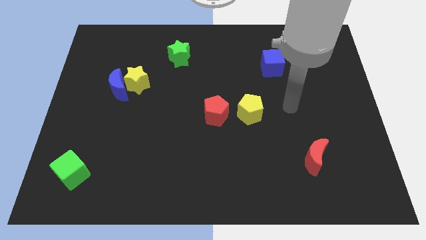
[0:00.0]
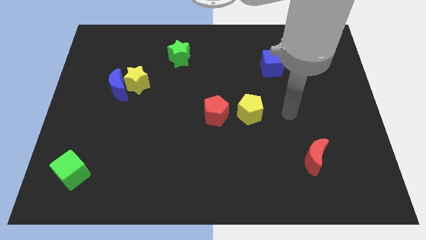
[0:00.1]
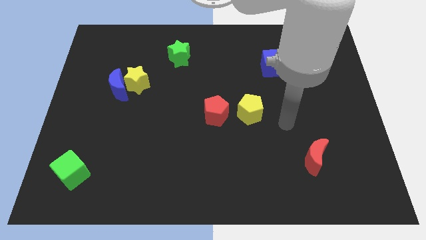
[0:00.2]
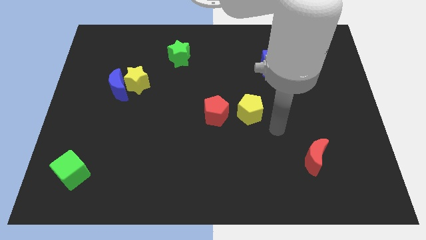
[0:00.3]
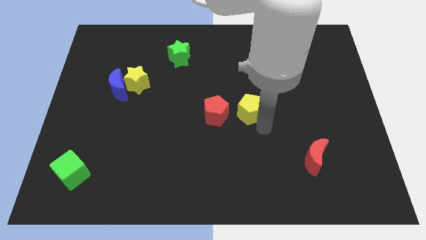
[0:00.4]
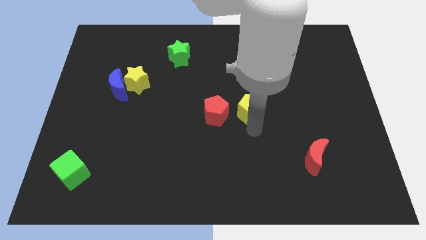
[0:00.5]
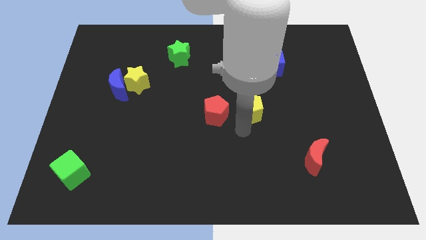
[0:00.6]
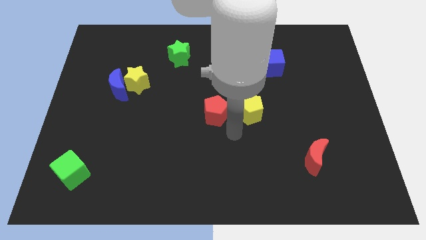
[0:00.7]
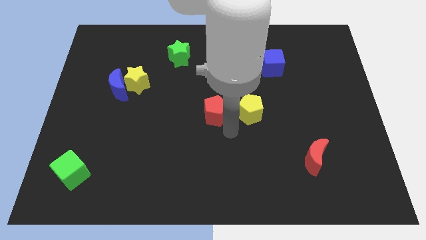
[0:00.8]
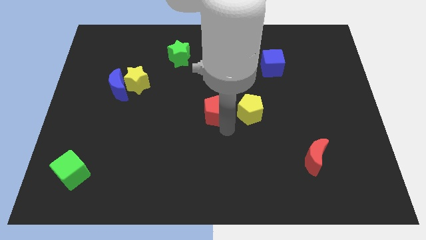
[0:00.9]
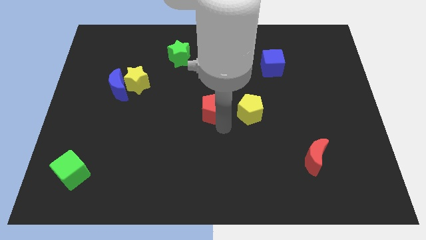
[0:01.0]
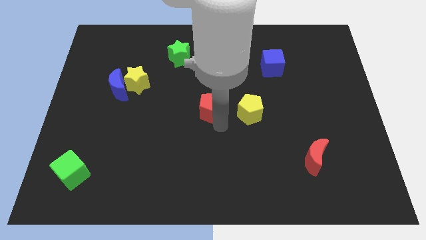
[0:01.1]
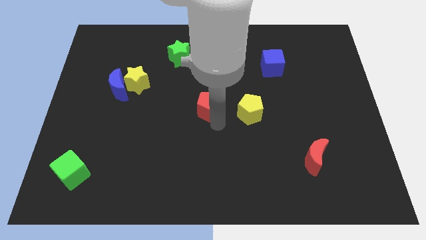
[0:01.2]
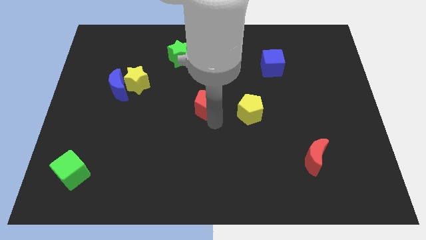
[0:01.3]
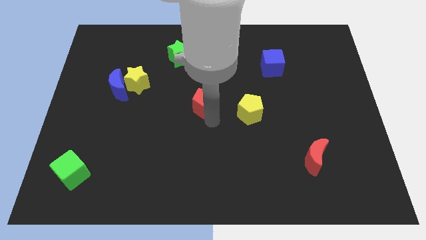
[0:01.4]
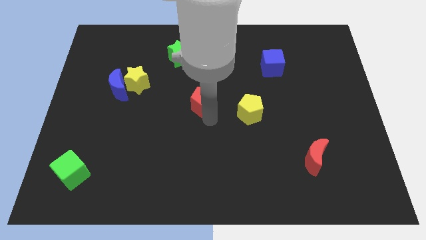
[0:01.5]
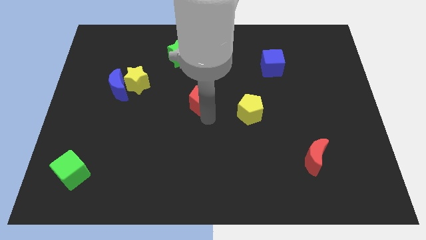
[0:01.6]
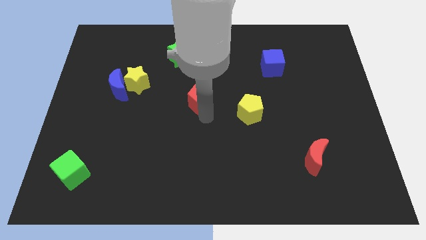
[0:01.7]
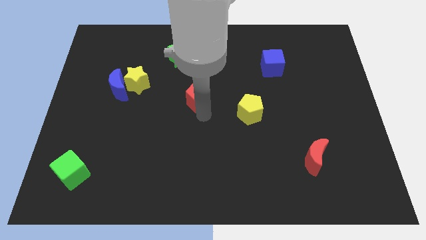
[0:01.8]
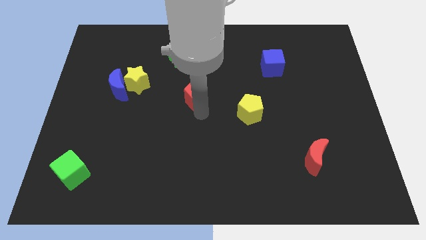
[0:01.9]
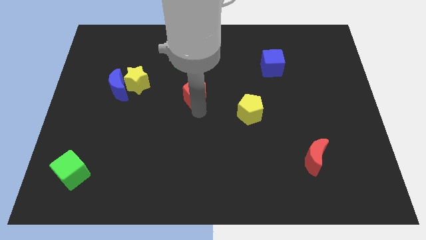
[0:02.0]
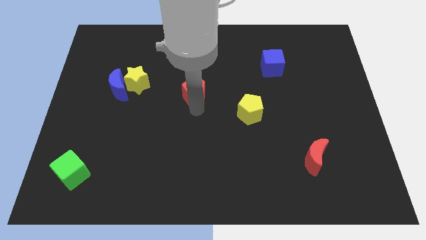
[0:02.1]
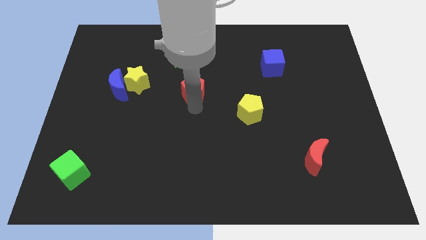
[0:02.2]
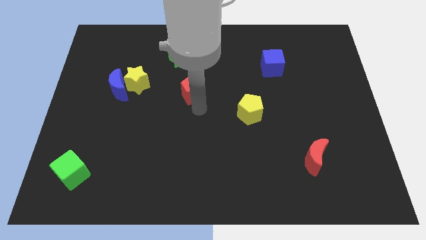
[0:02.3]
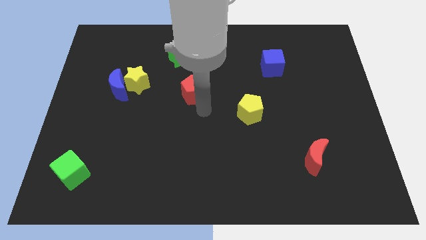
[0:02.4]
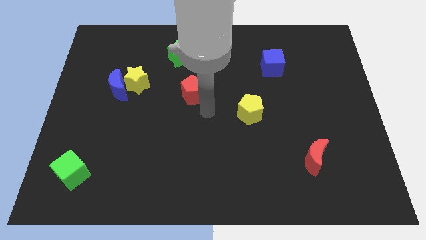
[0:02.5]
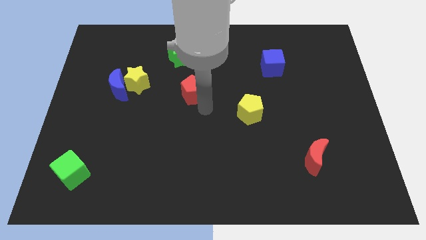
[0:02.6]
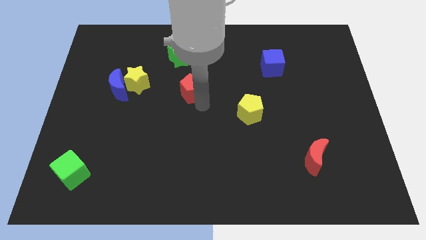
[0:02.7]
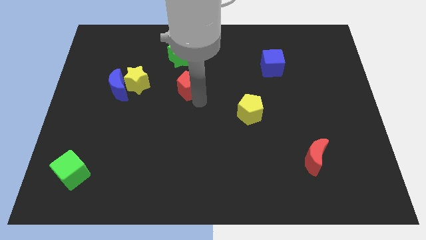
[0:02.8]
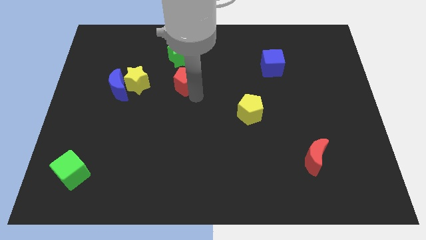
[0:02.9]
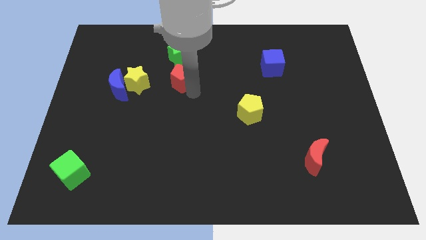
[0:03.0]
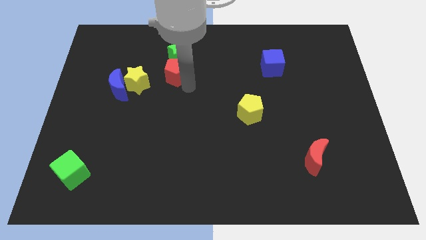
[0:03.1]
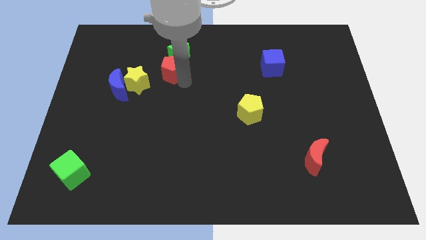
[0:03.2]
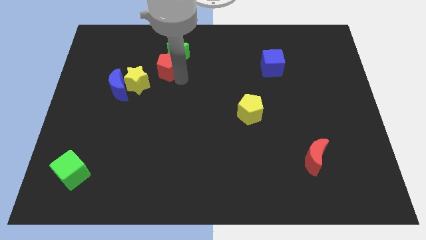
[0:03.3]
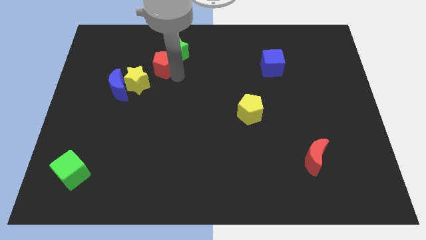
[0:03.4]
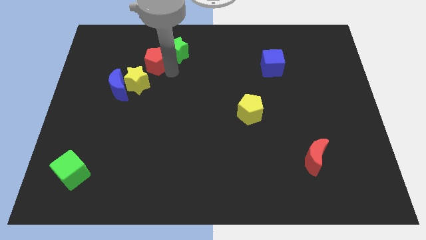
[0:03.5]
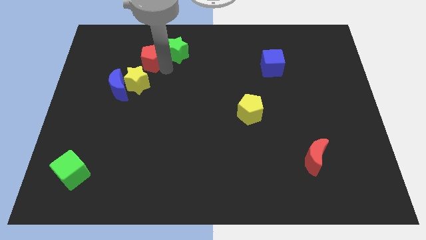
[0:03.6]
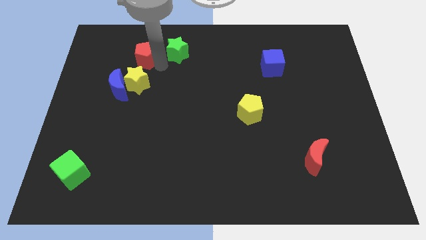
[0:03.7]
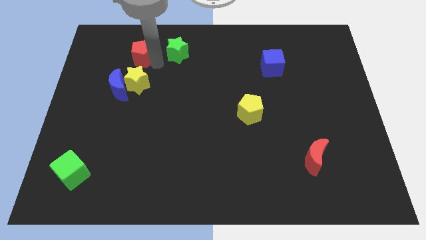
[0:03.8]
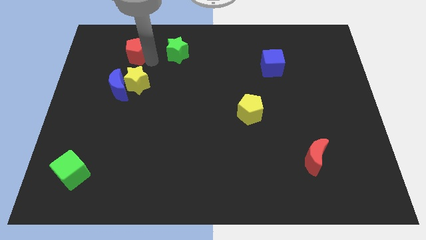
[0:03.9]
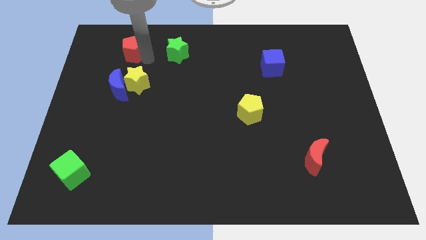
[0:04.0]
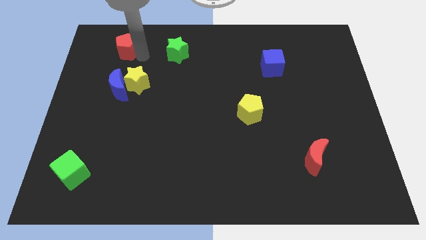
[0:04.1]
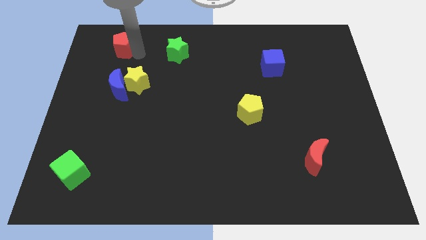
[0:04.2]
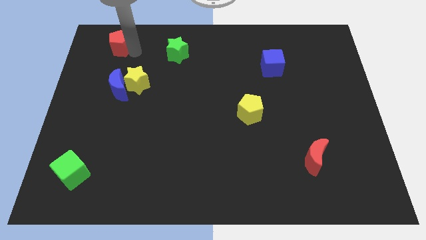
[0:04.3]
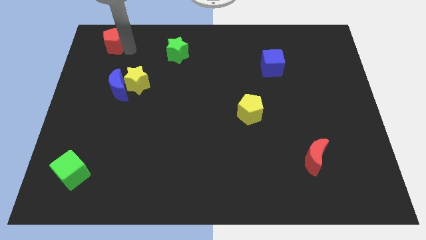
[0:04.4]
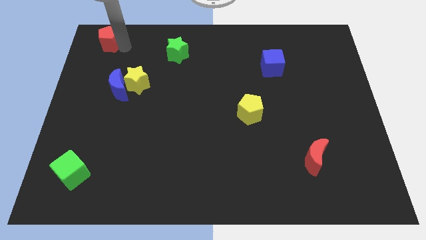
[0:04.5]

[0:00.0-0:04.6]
push the red pentagon to the top left of the board

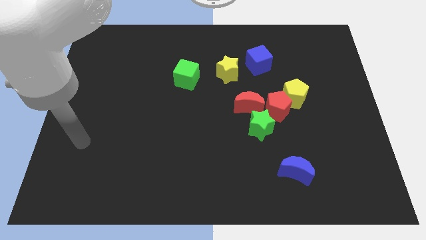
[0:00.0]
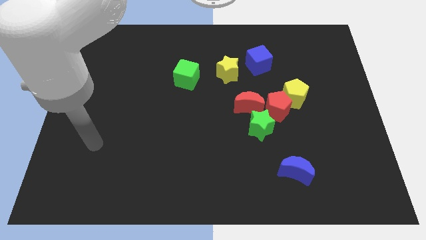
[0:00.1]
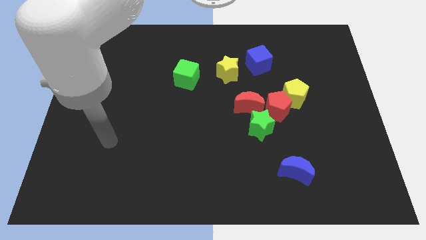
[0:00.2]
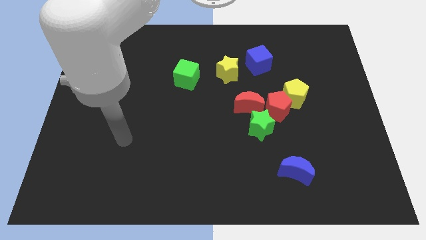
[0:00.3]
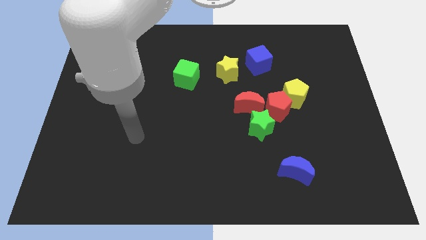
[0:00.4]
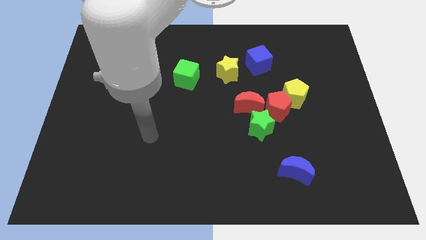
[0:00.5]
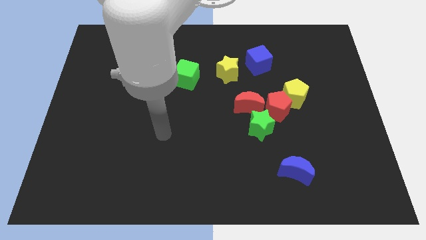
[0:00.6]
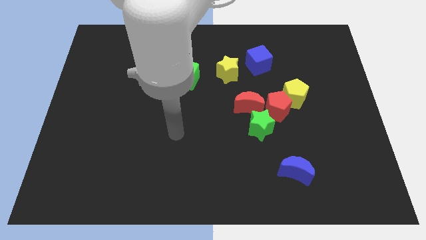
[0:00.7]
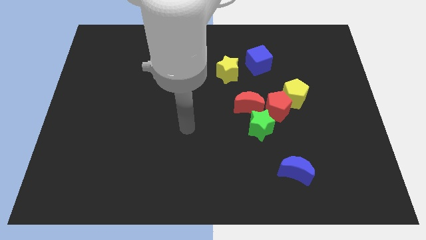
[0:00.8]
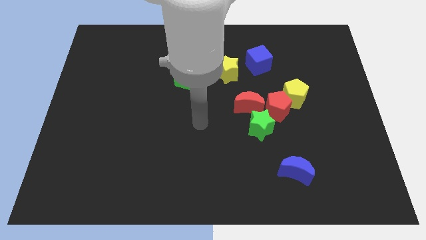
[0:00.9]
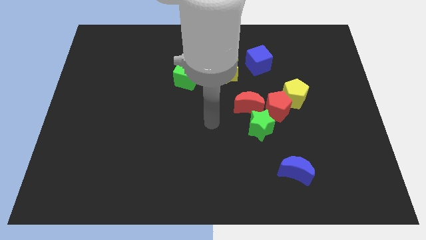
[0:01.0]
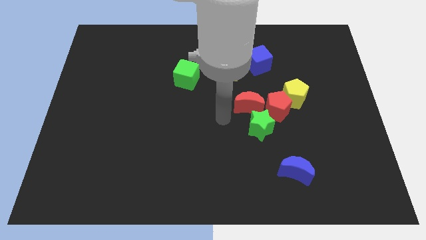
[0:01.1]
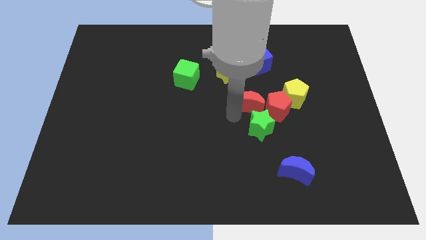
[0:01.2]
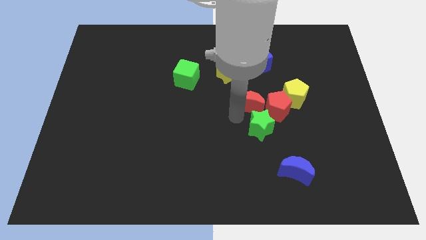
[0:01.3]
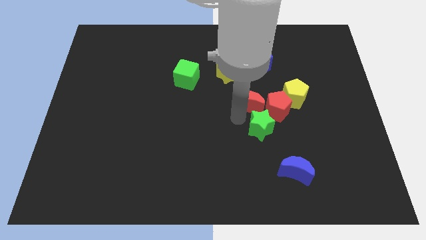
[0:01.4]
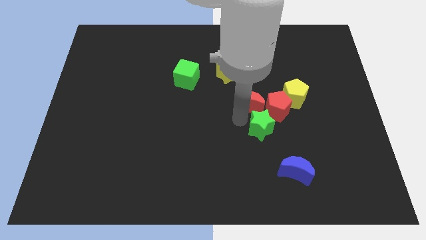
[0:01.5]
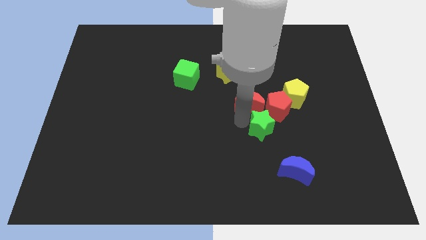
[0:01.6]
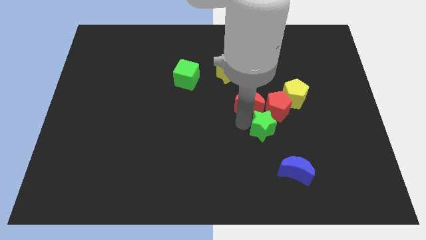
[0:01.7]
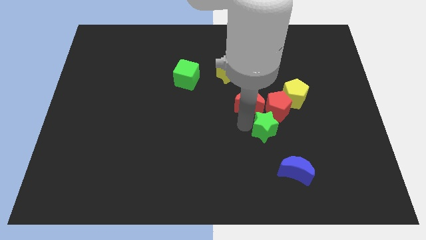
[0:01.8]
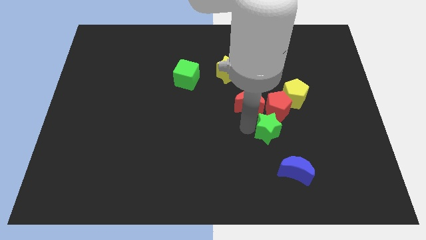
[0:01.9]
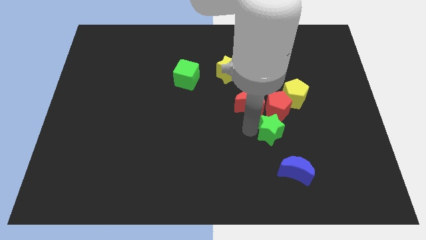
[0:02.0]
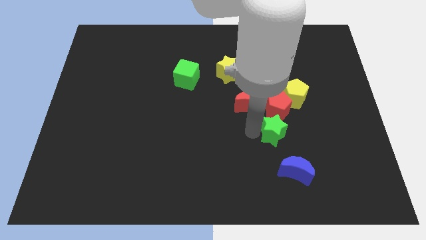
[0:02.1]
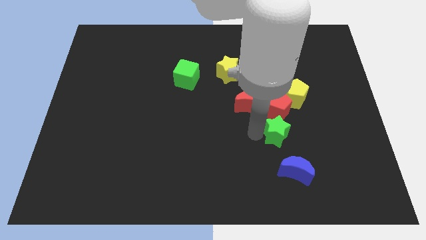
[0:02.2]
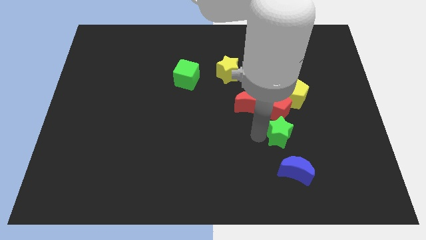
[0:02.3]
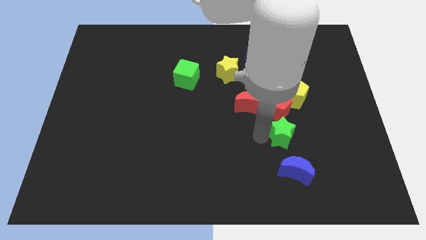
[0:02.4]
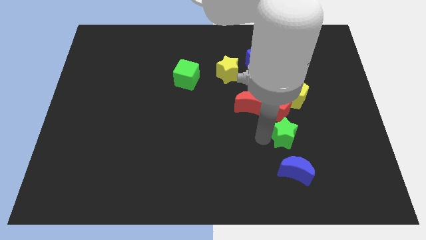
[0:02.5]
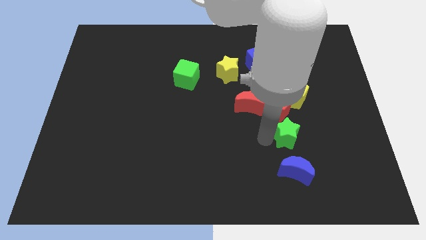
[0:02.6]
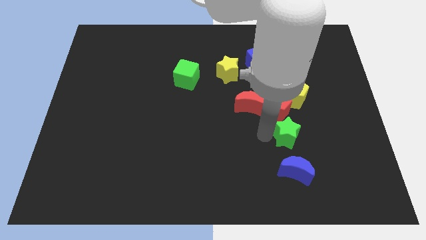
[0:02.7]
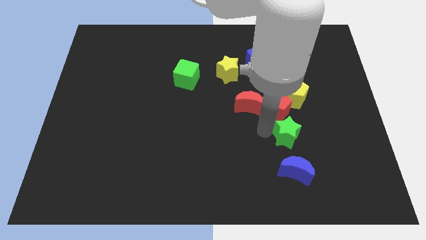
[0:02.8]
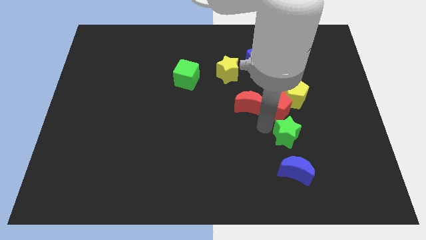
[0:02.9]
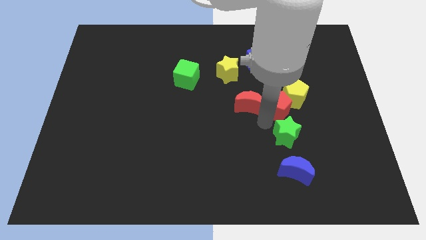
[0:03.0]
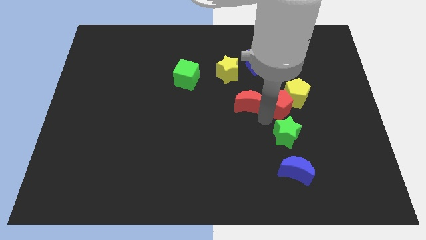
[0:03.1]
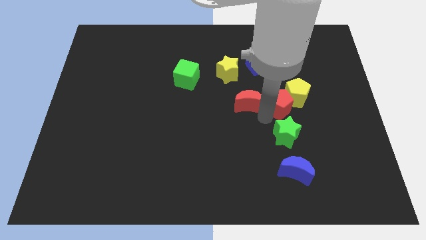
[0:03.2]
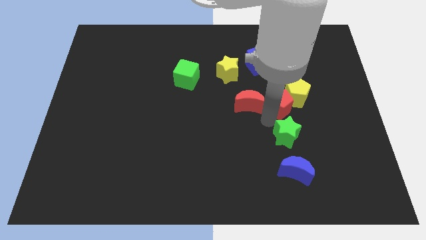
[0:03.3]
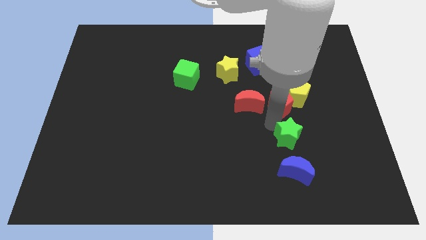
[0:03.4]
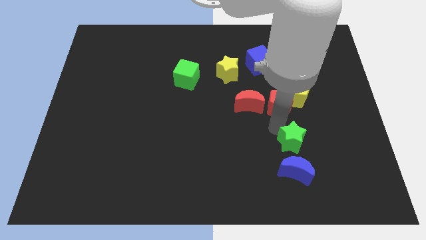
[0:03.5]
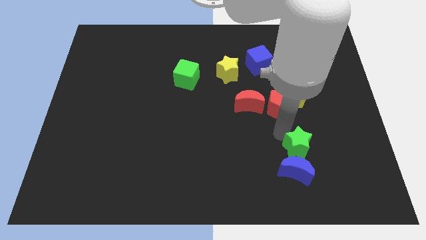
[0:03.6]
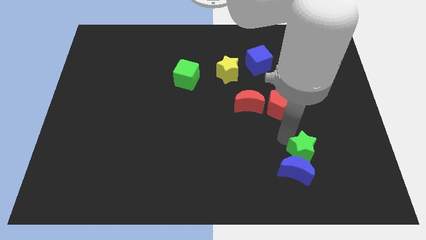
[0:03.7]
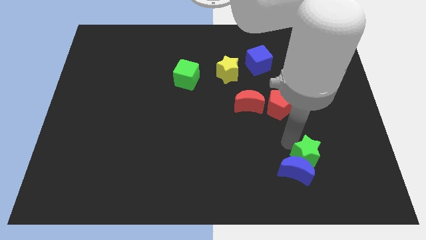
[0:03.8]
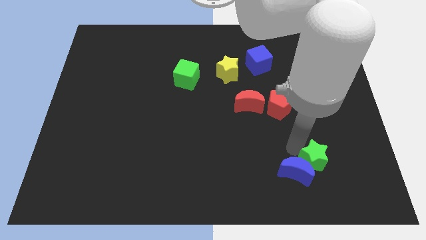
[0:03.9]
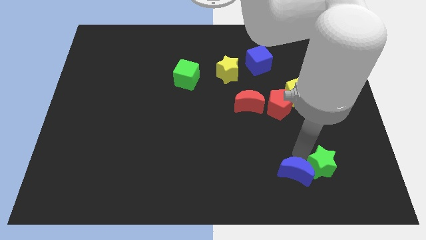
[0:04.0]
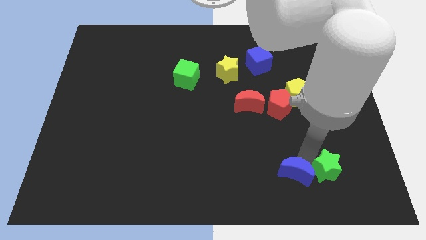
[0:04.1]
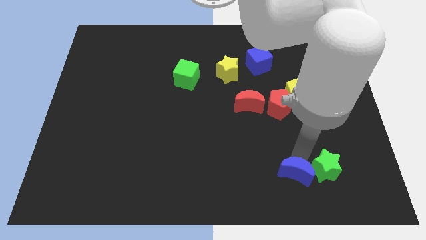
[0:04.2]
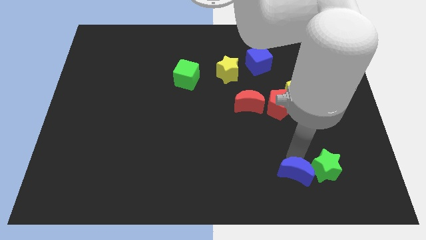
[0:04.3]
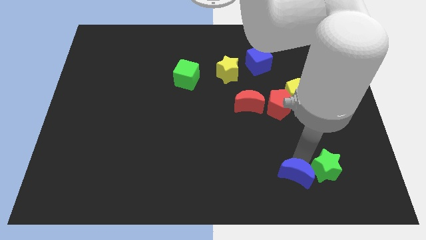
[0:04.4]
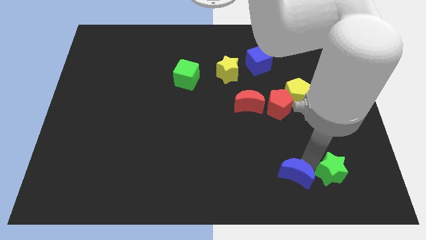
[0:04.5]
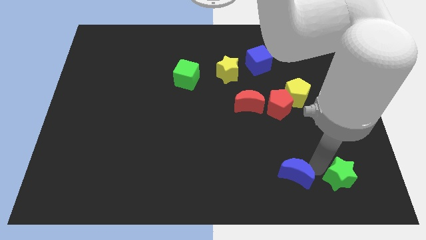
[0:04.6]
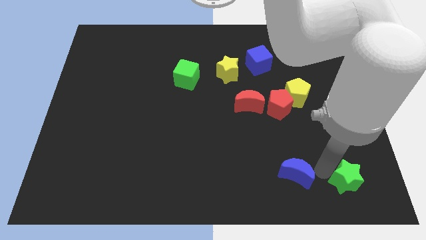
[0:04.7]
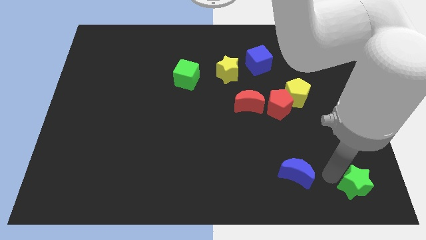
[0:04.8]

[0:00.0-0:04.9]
push the green star to the bottom right of the board
